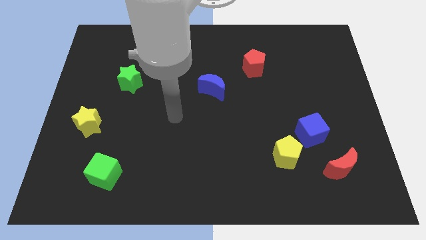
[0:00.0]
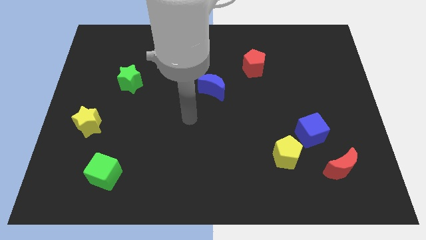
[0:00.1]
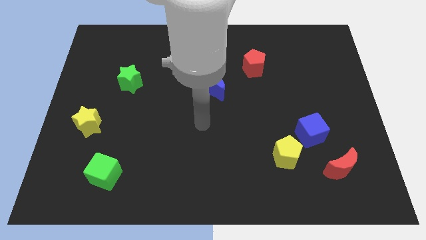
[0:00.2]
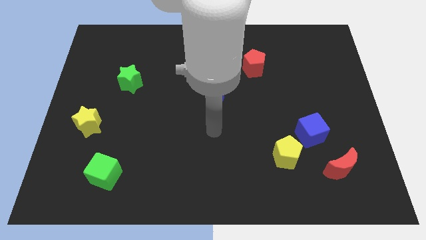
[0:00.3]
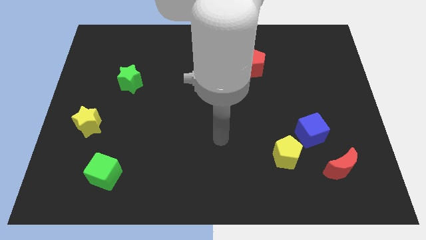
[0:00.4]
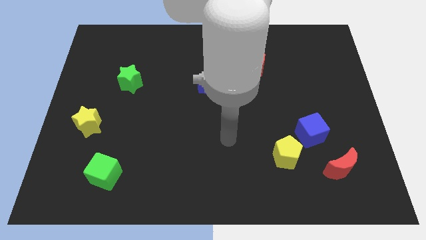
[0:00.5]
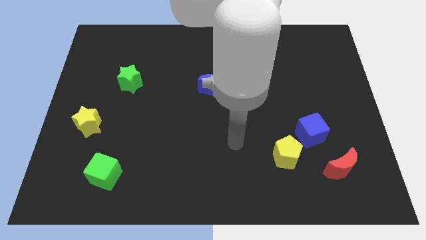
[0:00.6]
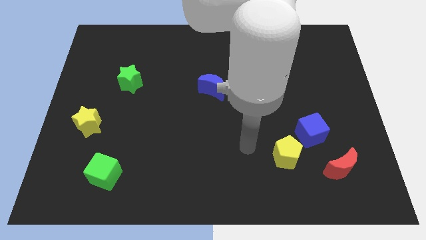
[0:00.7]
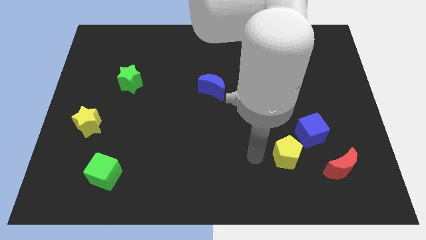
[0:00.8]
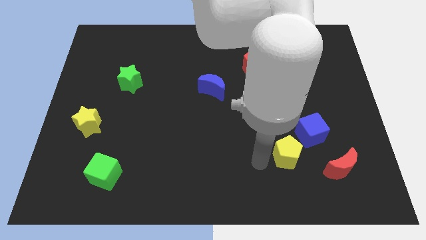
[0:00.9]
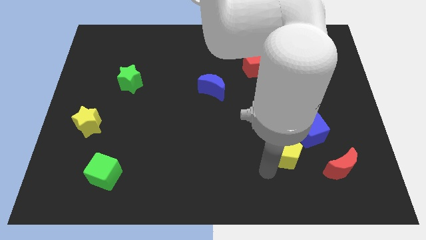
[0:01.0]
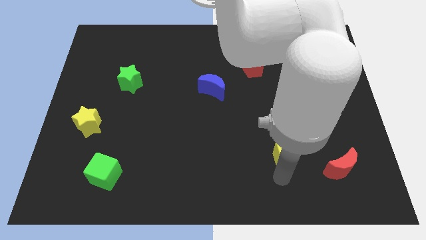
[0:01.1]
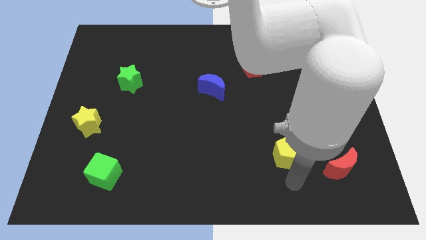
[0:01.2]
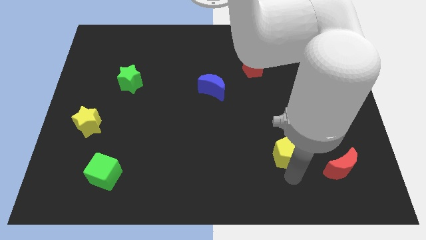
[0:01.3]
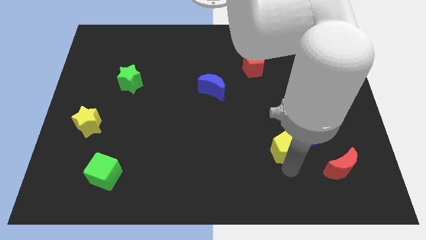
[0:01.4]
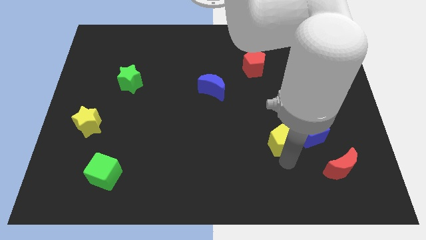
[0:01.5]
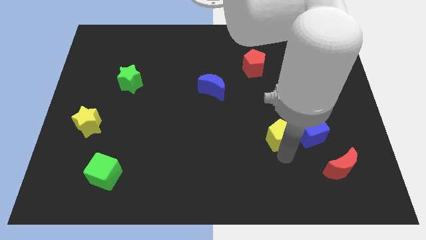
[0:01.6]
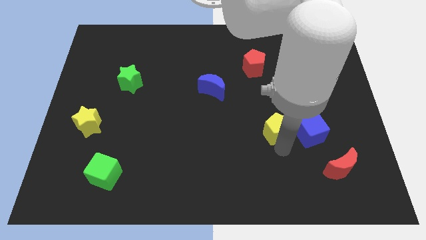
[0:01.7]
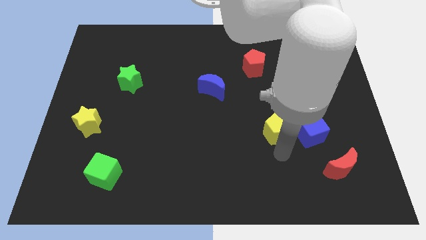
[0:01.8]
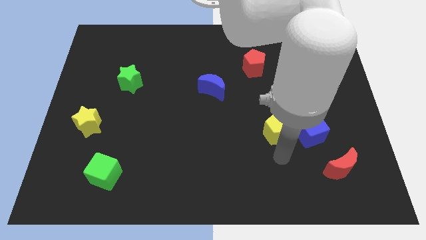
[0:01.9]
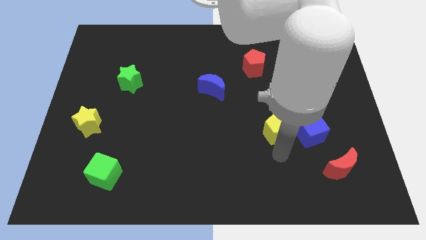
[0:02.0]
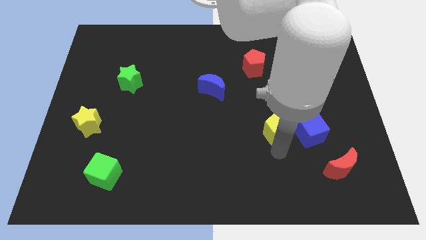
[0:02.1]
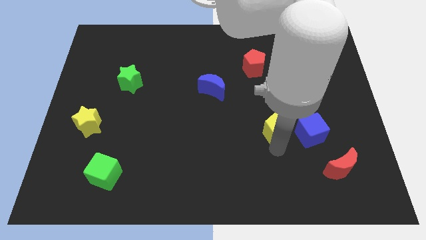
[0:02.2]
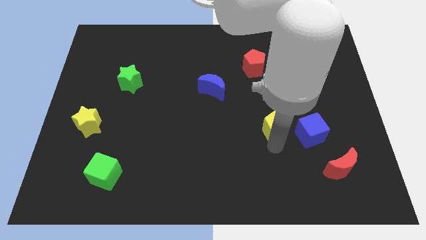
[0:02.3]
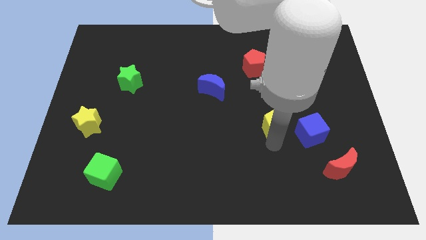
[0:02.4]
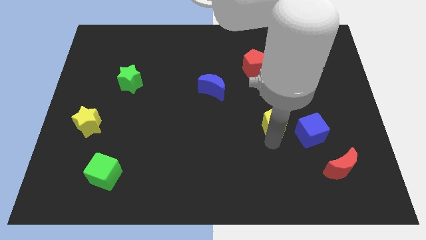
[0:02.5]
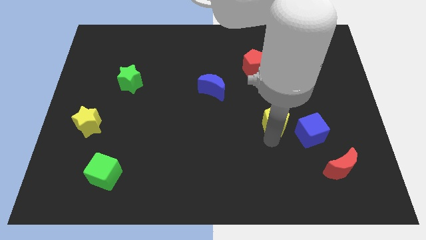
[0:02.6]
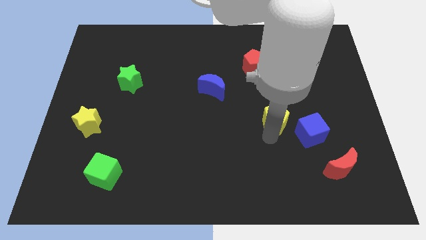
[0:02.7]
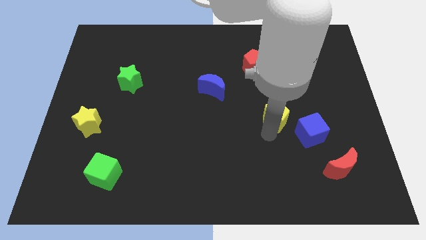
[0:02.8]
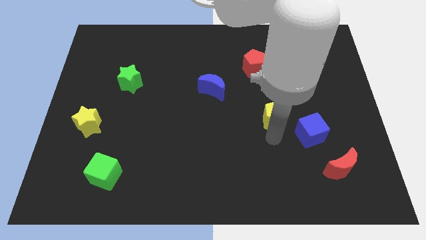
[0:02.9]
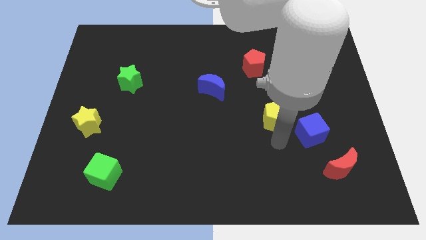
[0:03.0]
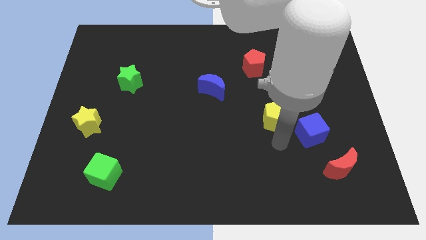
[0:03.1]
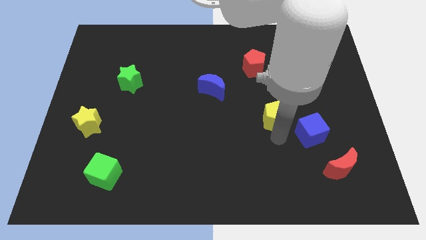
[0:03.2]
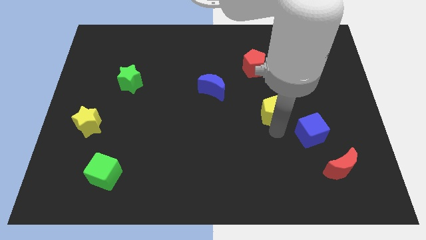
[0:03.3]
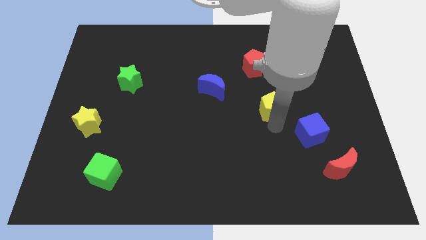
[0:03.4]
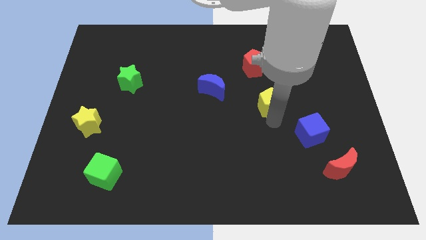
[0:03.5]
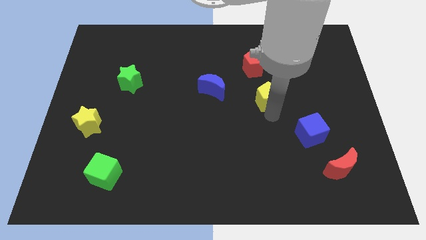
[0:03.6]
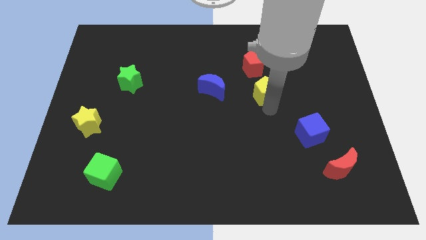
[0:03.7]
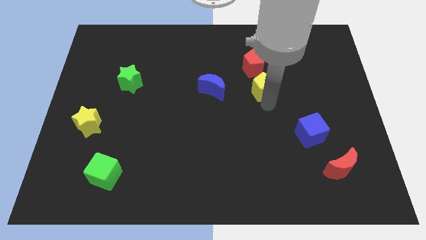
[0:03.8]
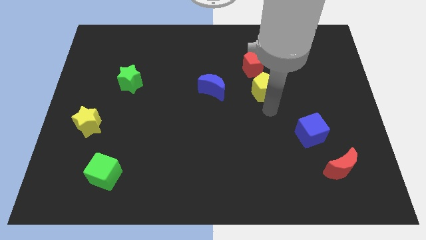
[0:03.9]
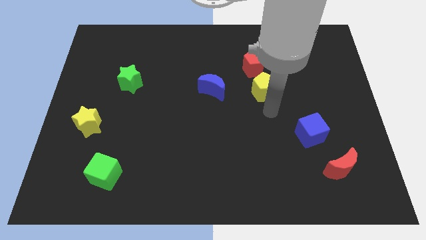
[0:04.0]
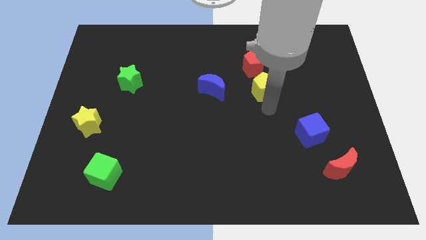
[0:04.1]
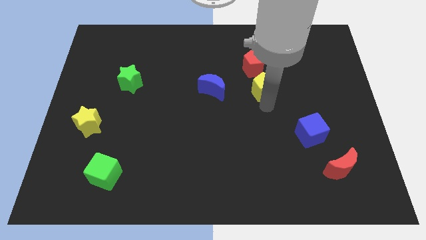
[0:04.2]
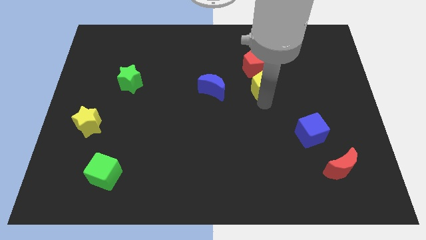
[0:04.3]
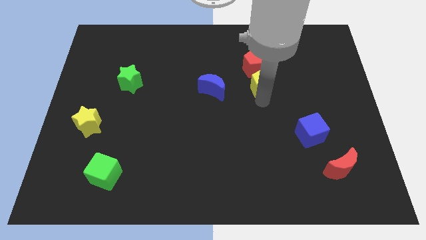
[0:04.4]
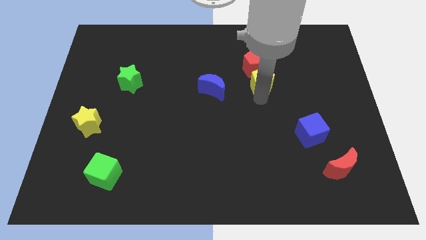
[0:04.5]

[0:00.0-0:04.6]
move the yellow pentagon to the red pentagon

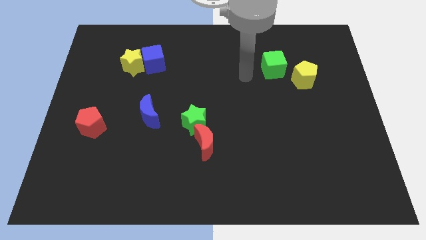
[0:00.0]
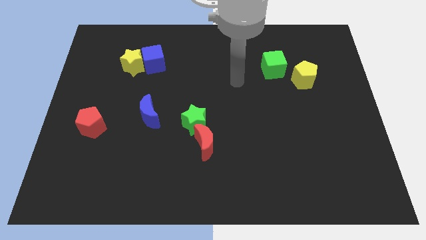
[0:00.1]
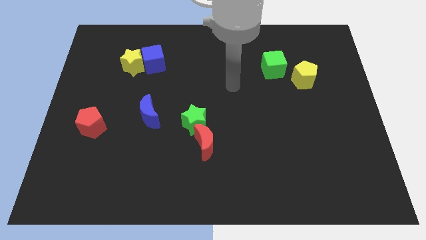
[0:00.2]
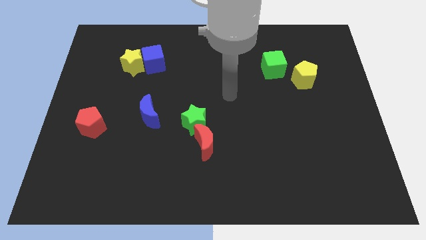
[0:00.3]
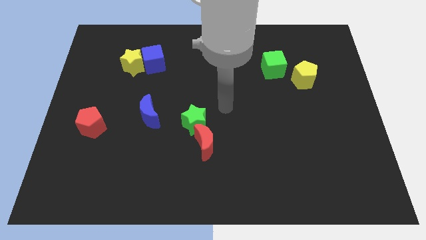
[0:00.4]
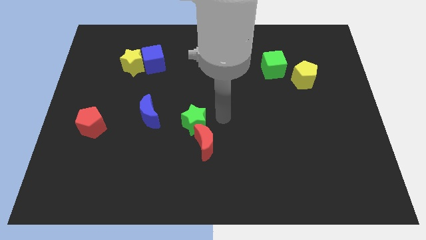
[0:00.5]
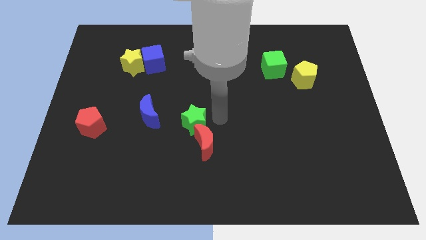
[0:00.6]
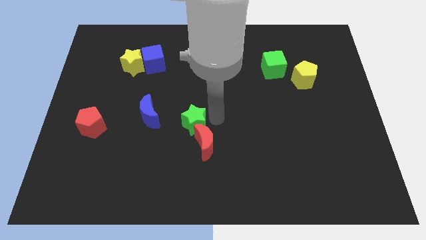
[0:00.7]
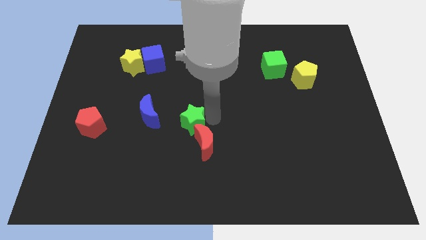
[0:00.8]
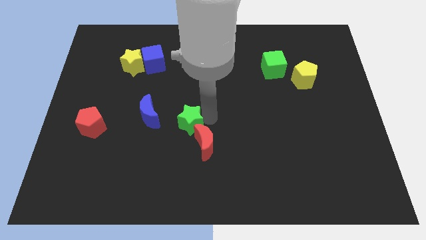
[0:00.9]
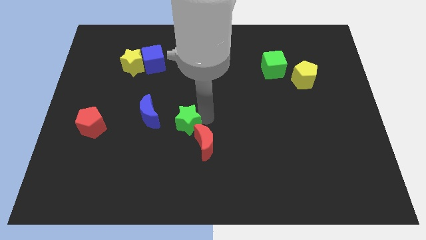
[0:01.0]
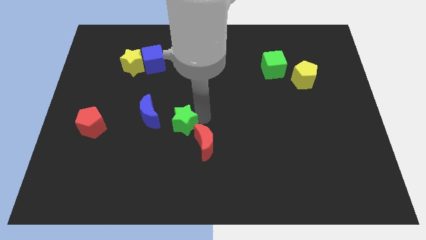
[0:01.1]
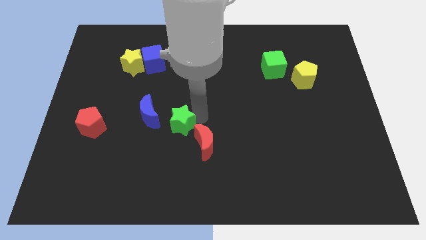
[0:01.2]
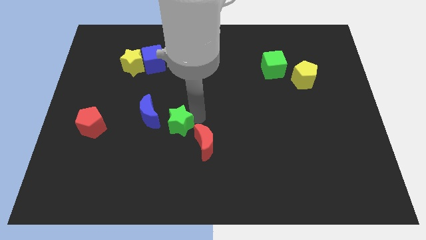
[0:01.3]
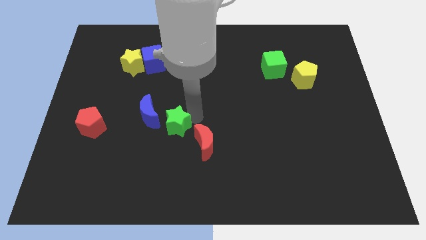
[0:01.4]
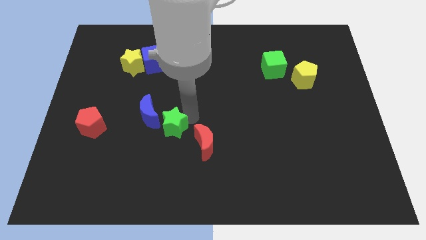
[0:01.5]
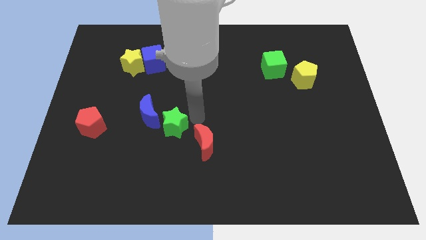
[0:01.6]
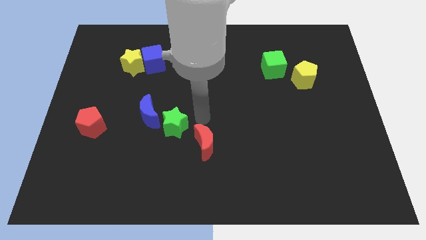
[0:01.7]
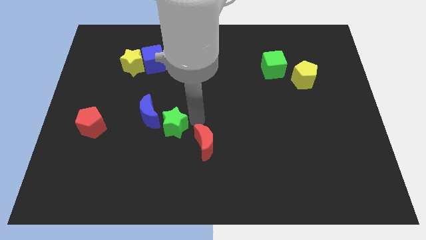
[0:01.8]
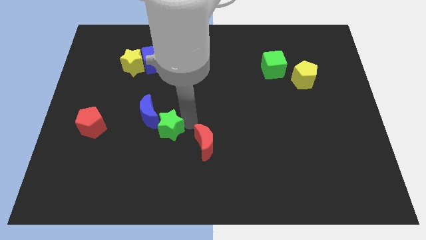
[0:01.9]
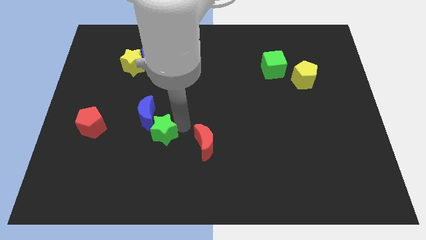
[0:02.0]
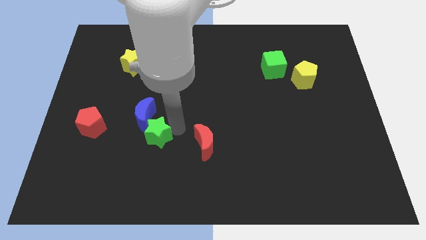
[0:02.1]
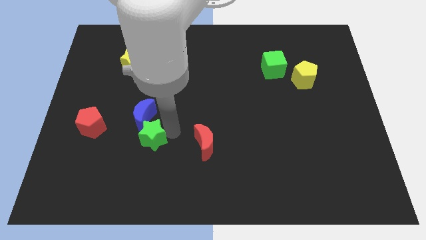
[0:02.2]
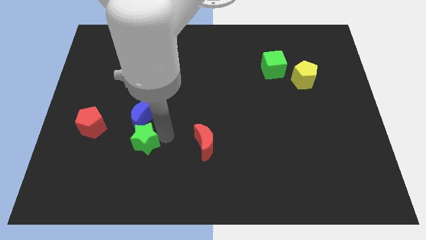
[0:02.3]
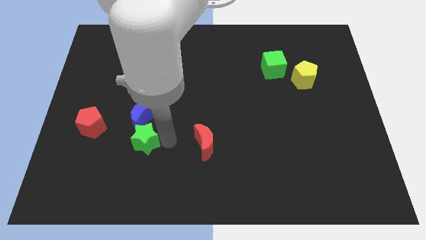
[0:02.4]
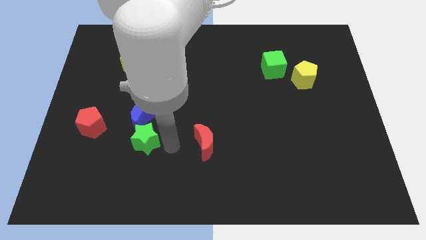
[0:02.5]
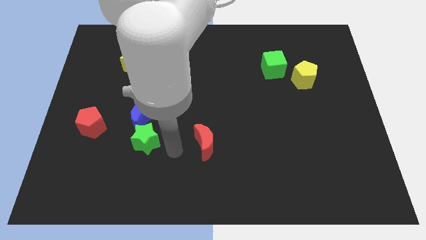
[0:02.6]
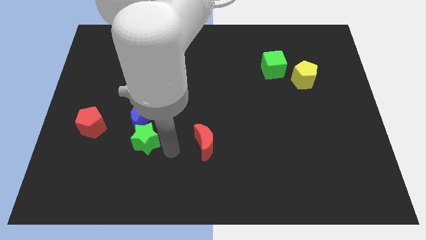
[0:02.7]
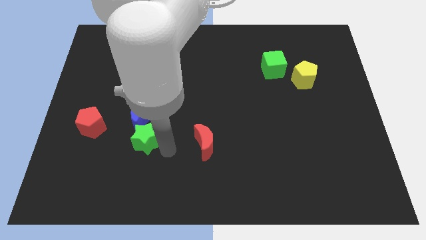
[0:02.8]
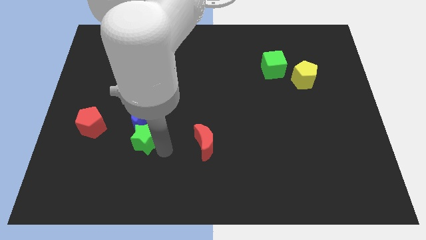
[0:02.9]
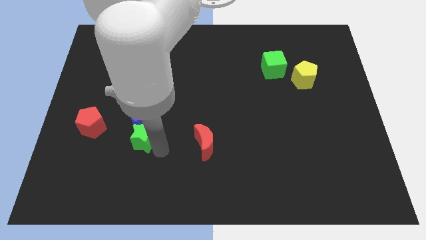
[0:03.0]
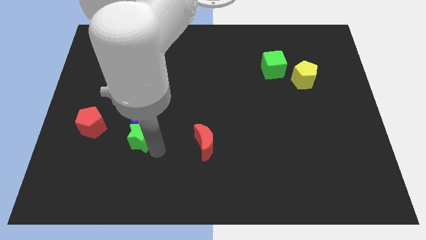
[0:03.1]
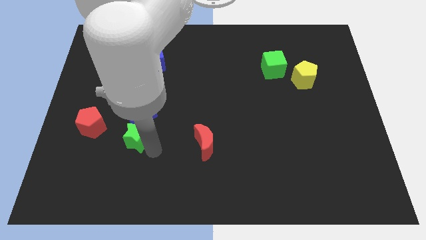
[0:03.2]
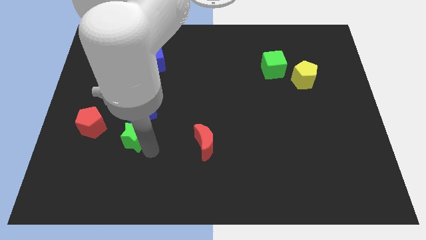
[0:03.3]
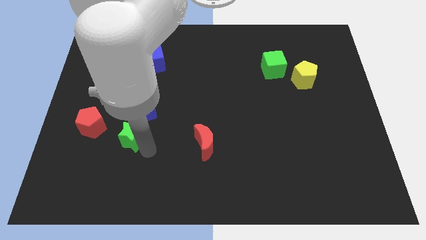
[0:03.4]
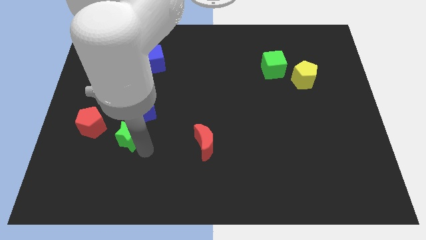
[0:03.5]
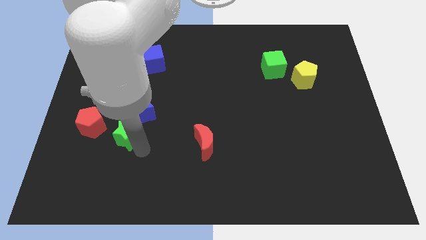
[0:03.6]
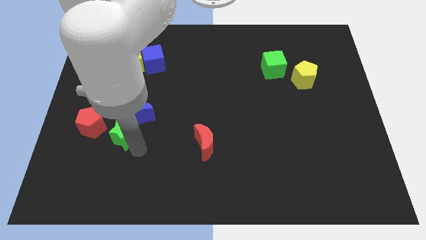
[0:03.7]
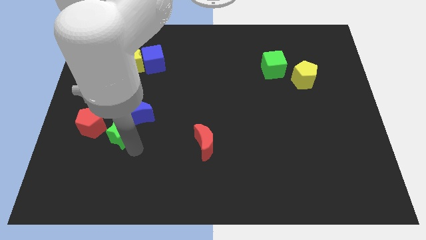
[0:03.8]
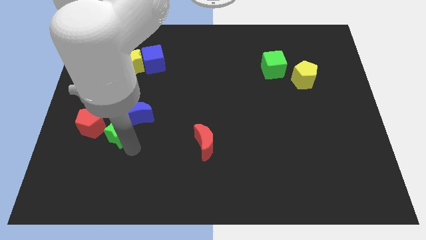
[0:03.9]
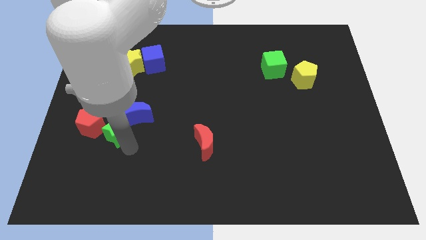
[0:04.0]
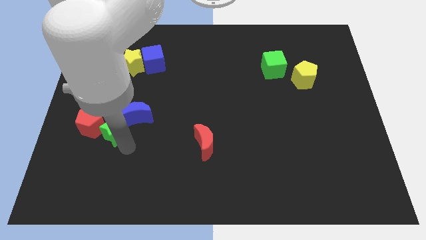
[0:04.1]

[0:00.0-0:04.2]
move the green star towards the red pentagon
